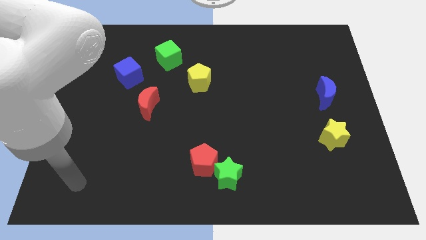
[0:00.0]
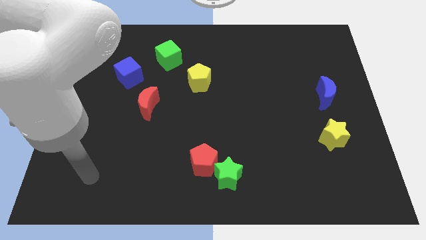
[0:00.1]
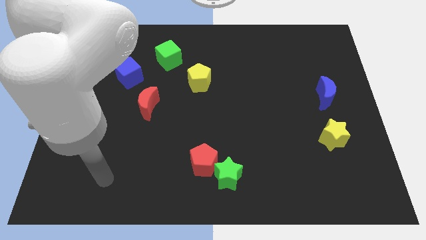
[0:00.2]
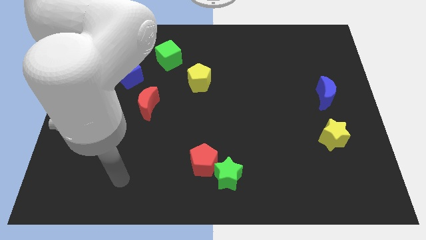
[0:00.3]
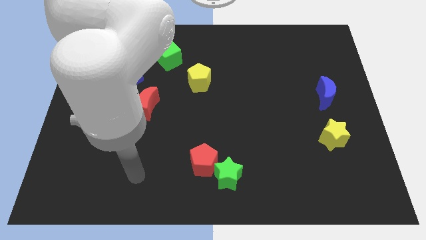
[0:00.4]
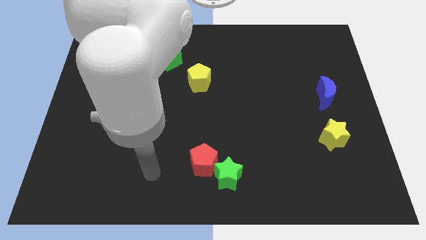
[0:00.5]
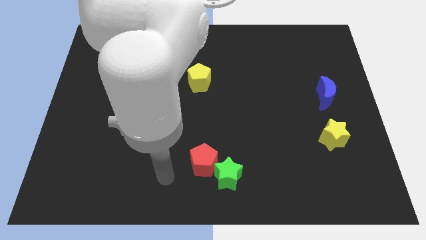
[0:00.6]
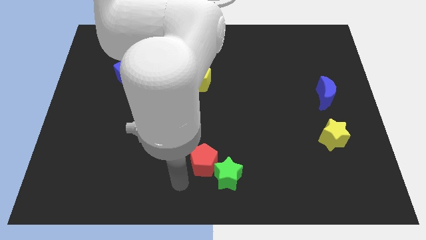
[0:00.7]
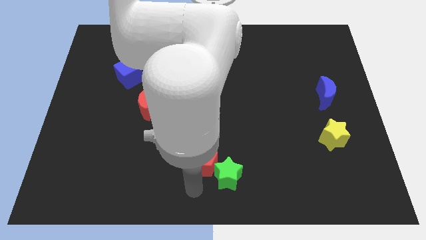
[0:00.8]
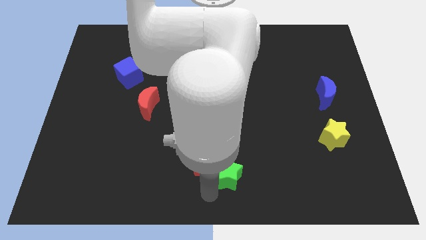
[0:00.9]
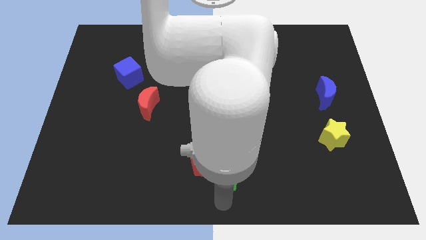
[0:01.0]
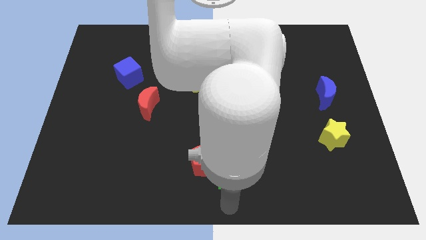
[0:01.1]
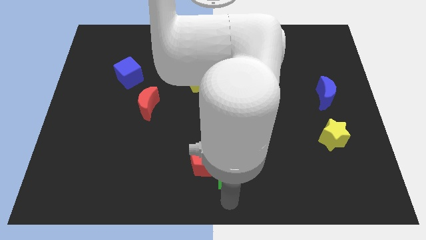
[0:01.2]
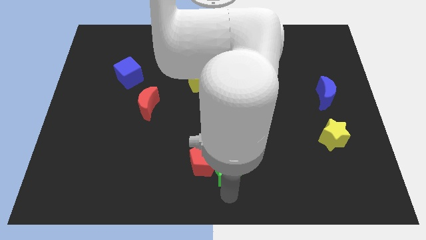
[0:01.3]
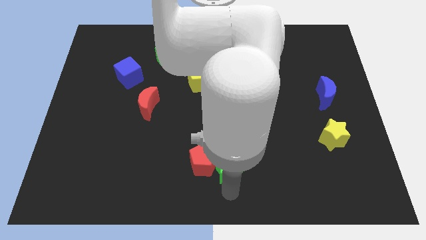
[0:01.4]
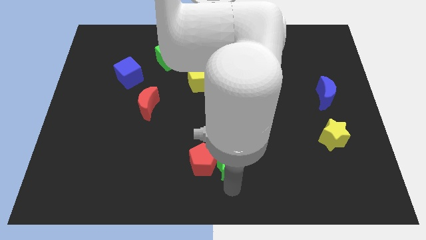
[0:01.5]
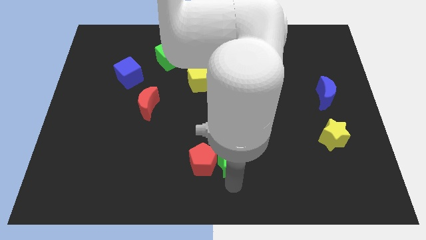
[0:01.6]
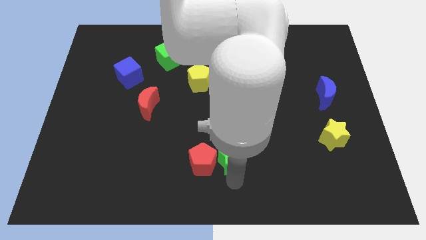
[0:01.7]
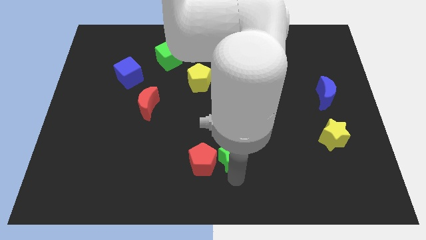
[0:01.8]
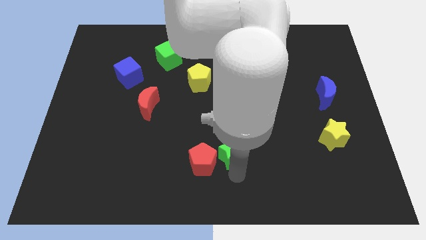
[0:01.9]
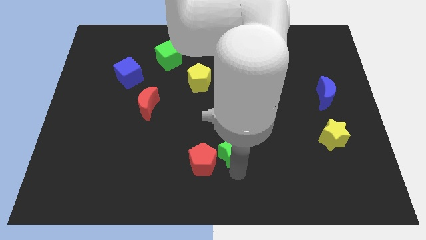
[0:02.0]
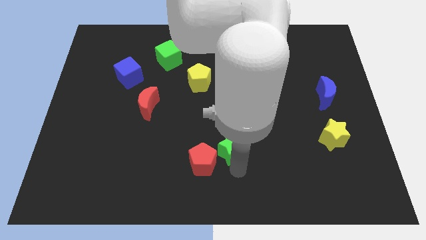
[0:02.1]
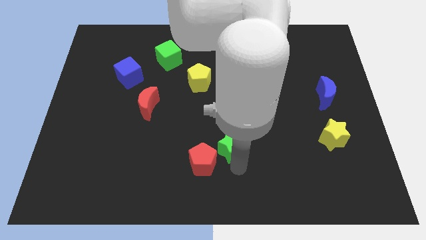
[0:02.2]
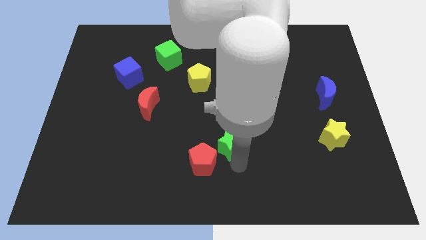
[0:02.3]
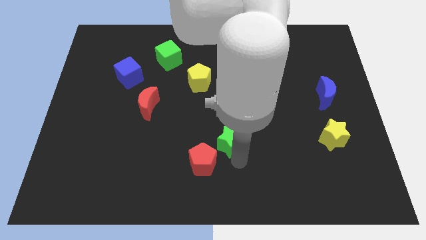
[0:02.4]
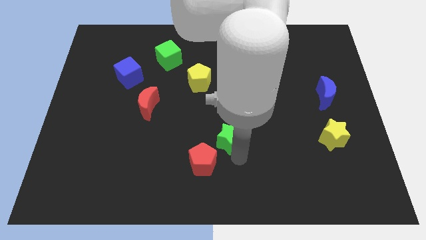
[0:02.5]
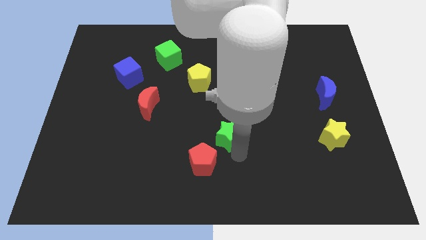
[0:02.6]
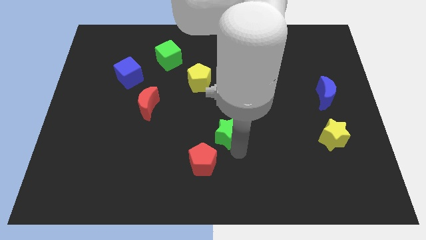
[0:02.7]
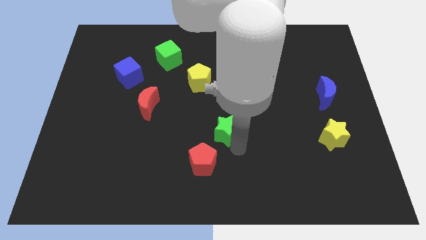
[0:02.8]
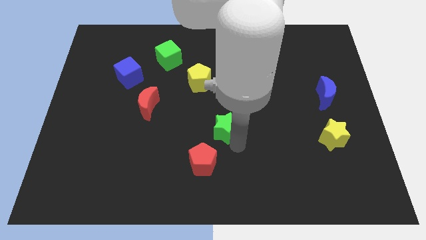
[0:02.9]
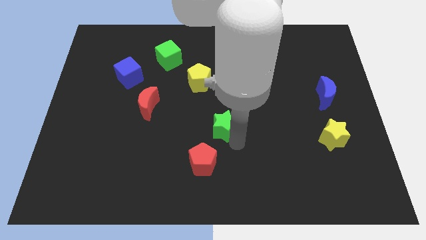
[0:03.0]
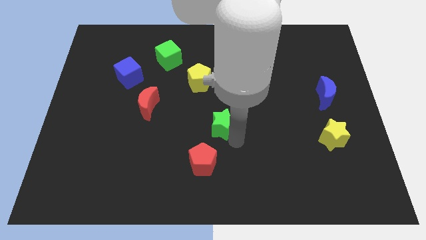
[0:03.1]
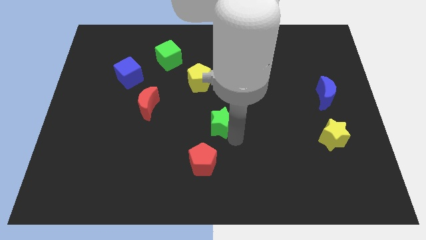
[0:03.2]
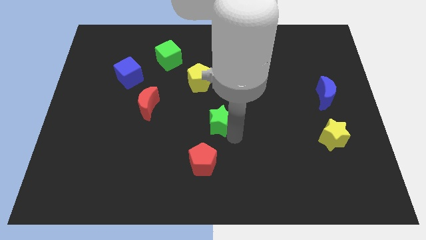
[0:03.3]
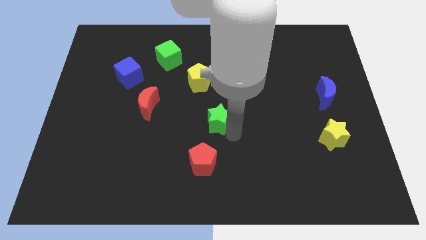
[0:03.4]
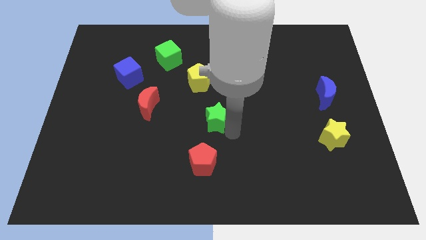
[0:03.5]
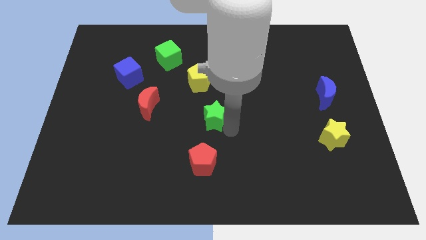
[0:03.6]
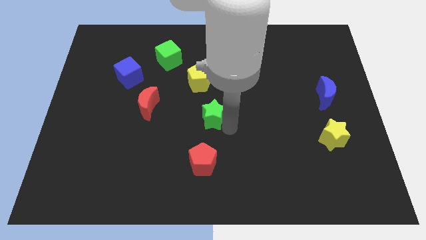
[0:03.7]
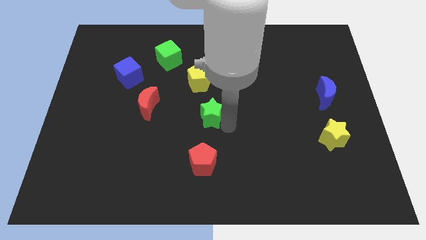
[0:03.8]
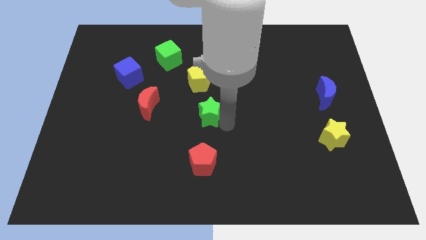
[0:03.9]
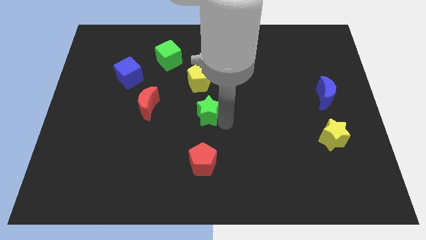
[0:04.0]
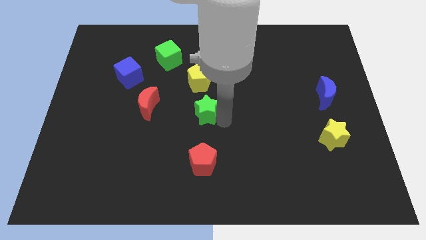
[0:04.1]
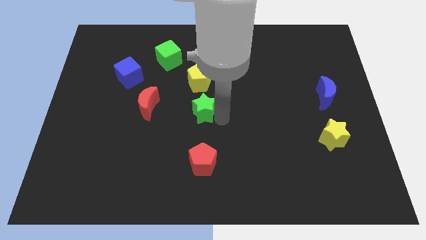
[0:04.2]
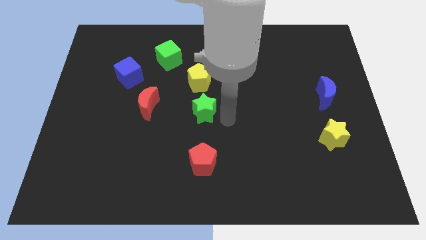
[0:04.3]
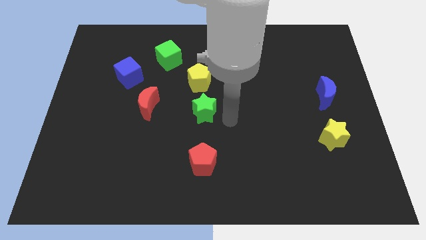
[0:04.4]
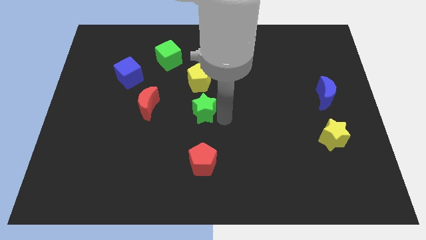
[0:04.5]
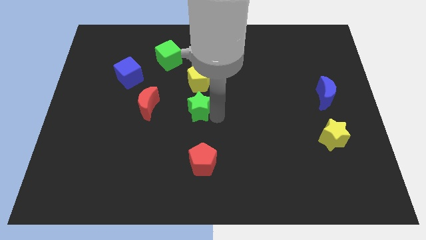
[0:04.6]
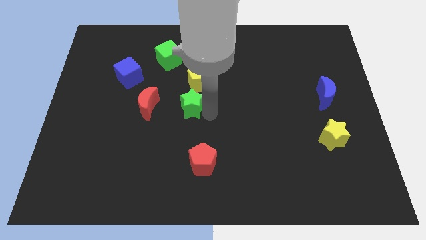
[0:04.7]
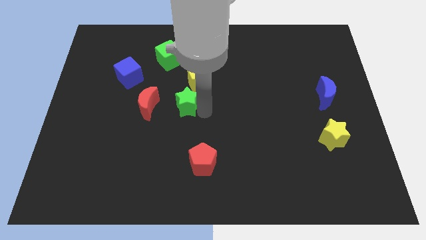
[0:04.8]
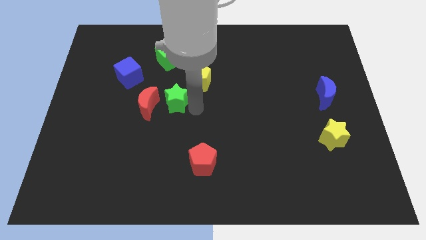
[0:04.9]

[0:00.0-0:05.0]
push the green star up and to the left diagonally

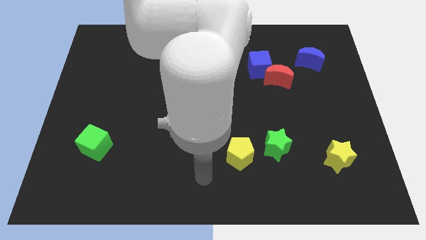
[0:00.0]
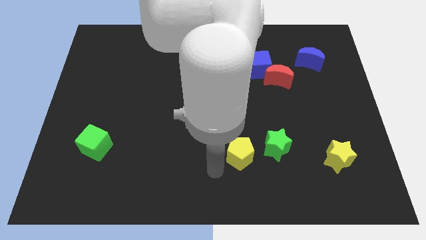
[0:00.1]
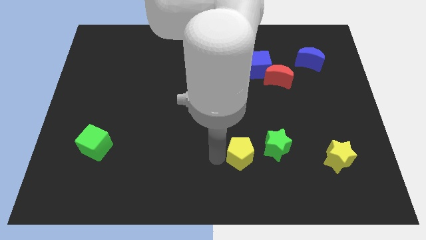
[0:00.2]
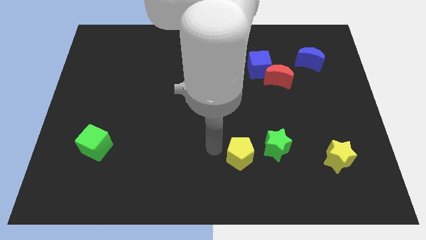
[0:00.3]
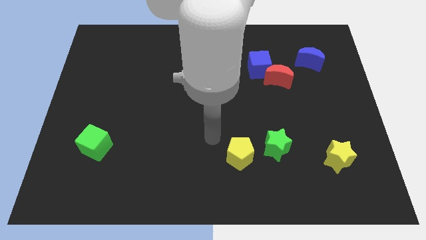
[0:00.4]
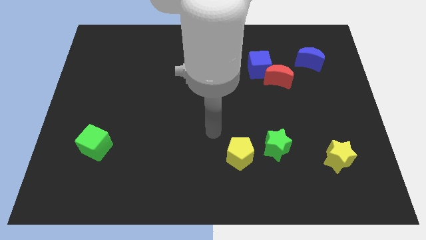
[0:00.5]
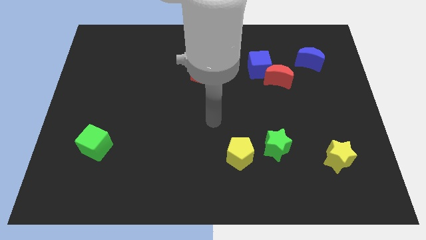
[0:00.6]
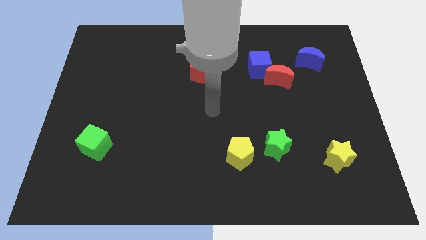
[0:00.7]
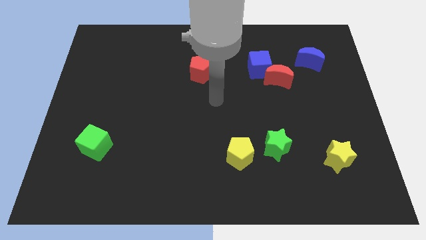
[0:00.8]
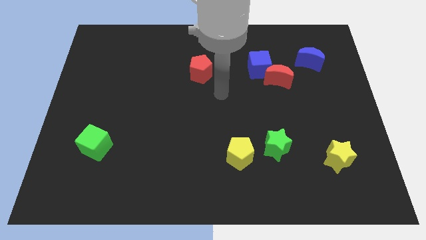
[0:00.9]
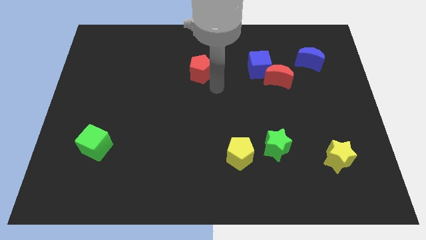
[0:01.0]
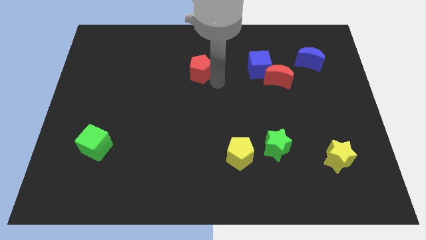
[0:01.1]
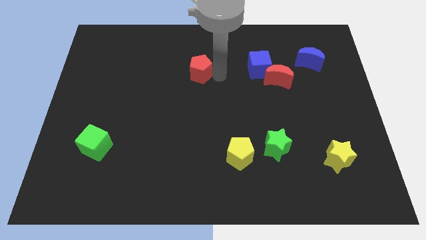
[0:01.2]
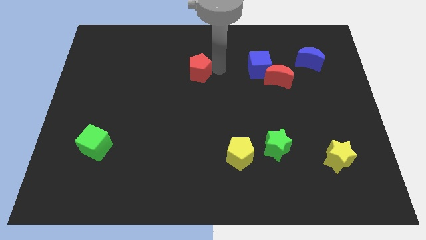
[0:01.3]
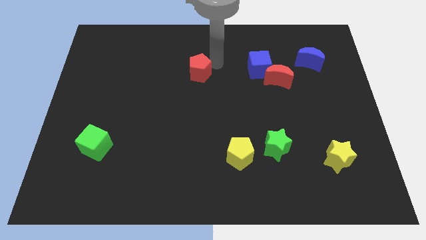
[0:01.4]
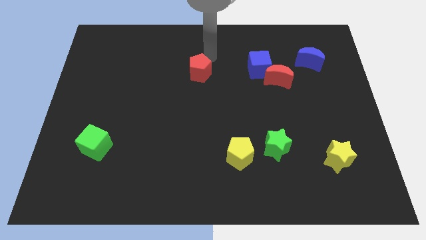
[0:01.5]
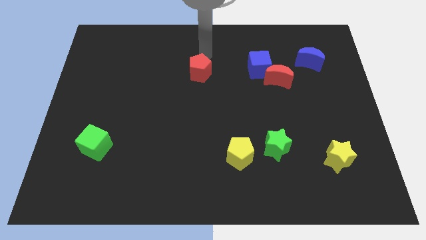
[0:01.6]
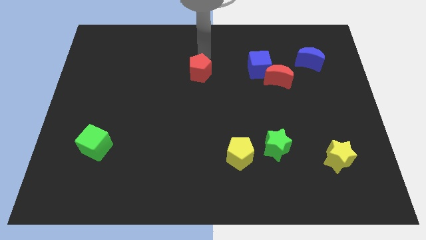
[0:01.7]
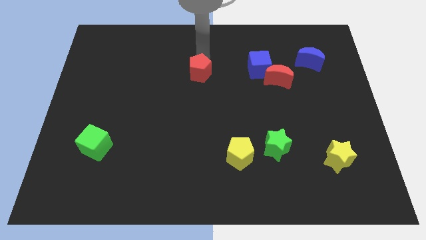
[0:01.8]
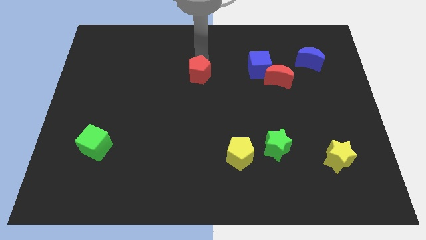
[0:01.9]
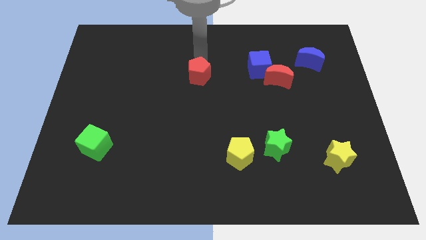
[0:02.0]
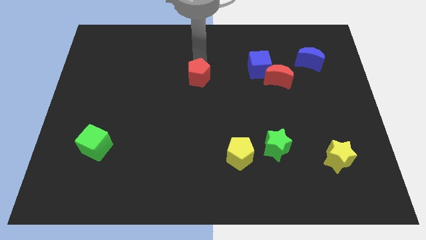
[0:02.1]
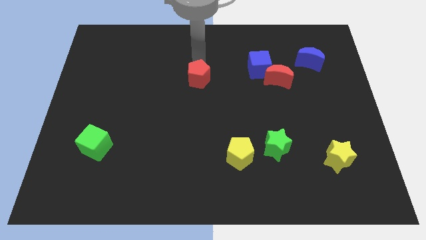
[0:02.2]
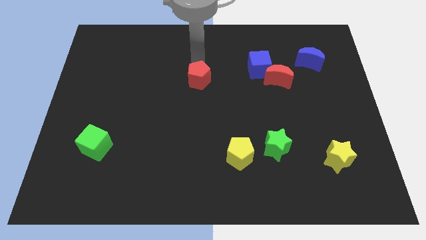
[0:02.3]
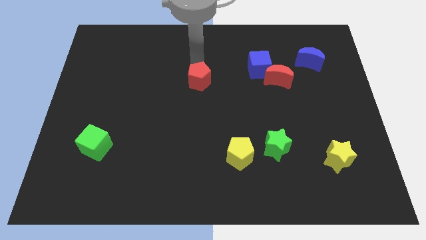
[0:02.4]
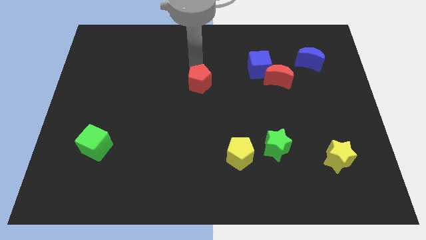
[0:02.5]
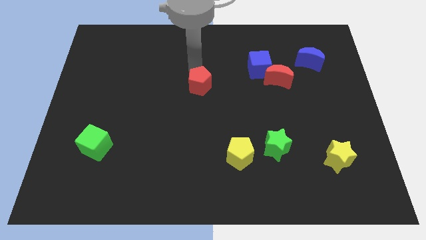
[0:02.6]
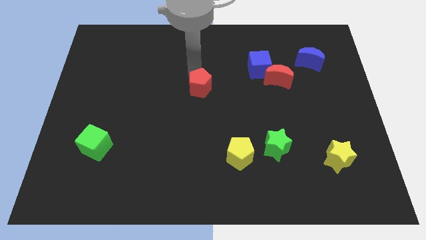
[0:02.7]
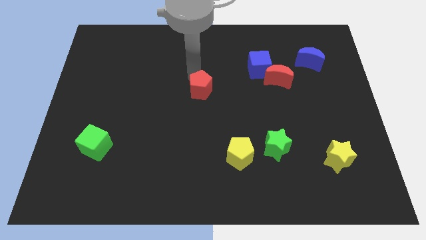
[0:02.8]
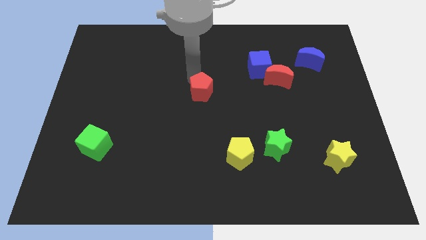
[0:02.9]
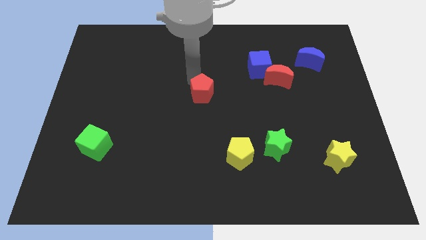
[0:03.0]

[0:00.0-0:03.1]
move the red pentagon somewhat downwards

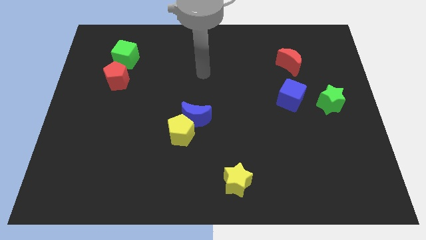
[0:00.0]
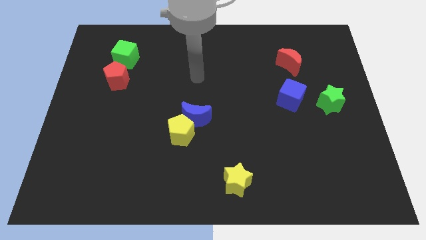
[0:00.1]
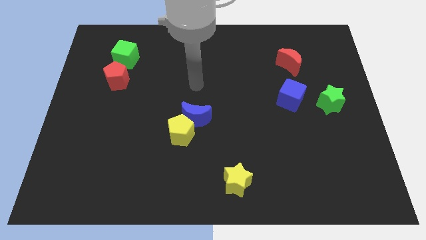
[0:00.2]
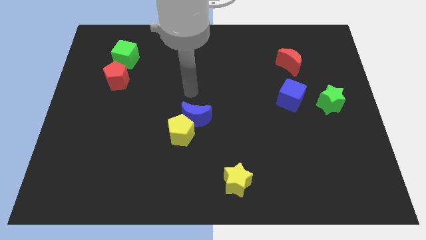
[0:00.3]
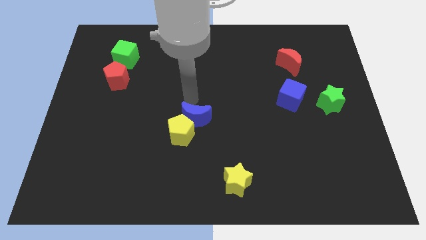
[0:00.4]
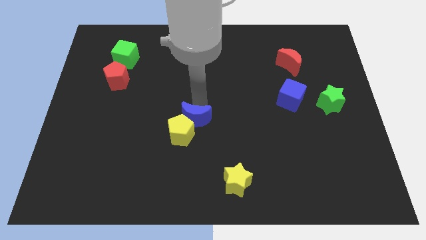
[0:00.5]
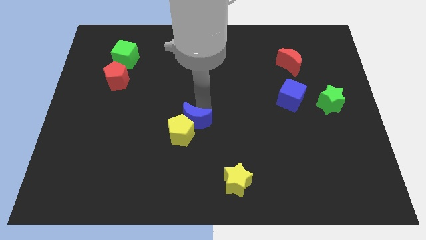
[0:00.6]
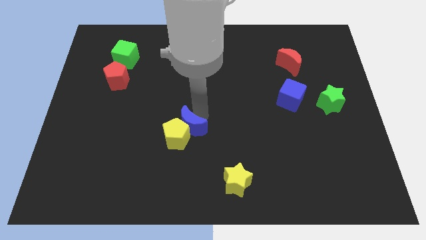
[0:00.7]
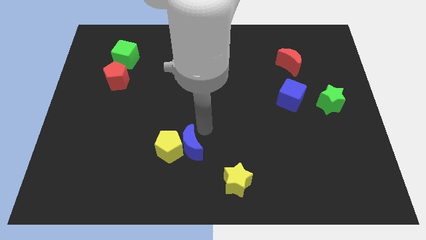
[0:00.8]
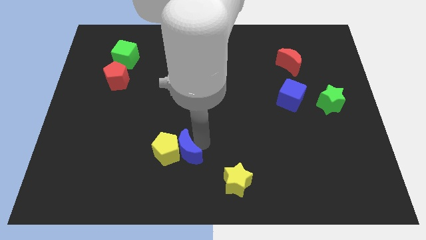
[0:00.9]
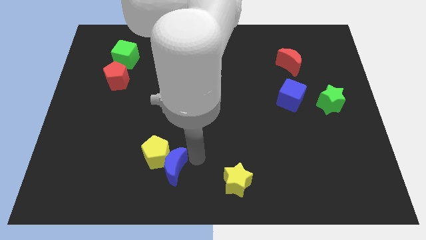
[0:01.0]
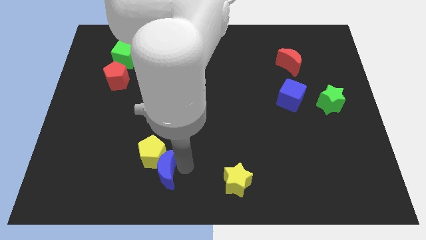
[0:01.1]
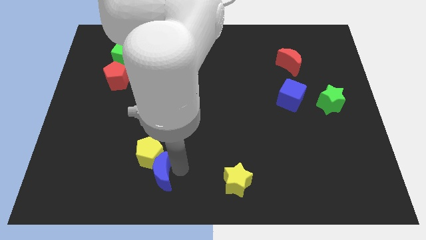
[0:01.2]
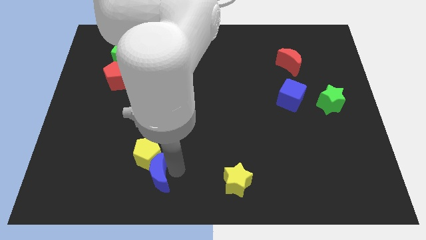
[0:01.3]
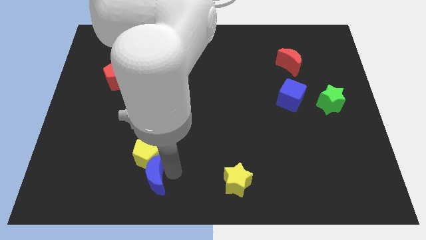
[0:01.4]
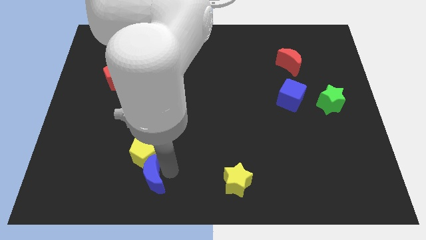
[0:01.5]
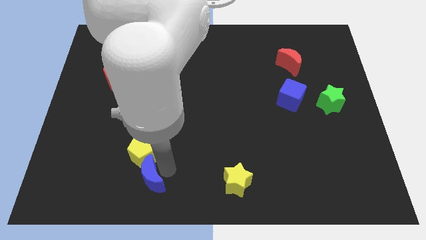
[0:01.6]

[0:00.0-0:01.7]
slightly move the yellow pentagon left
